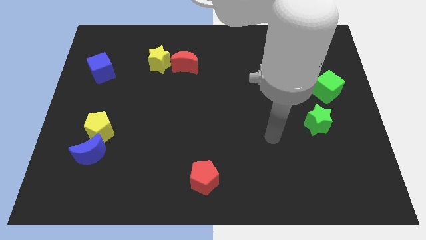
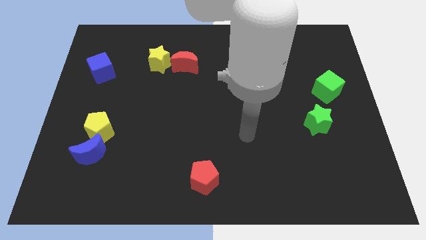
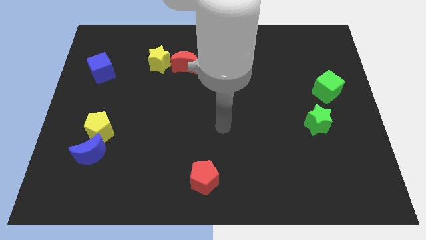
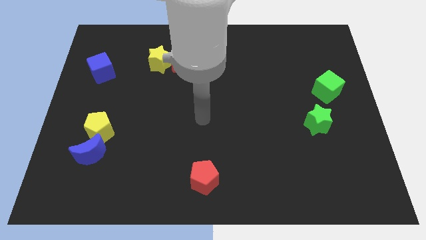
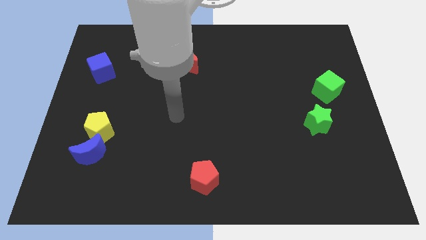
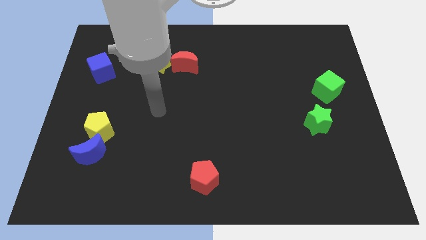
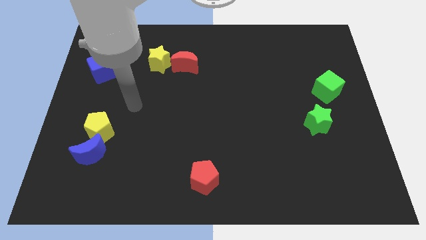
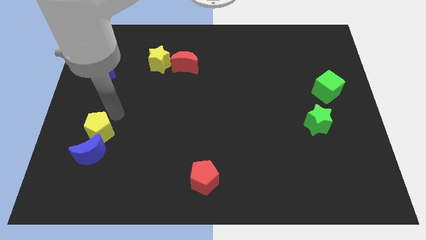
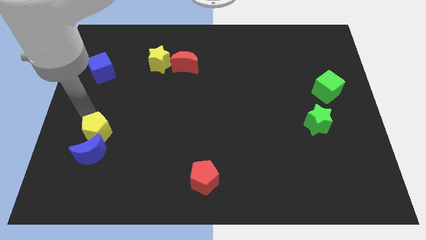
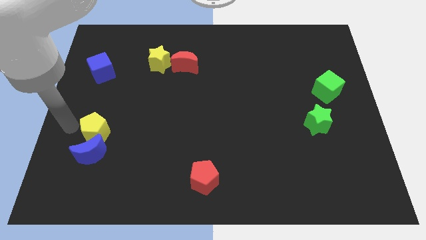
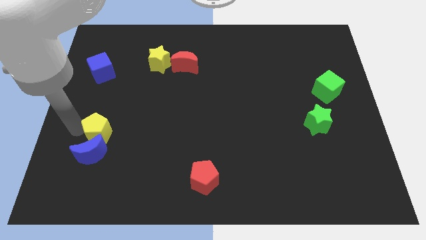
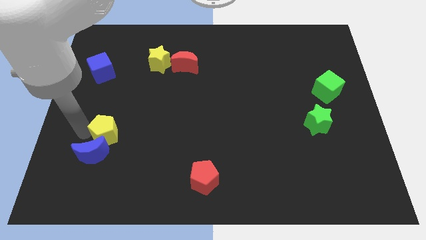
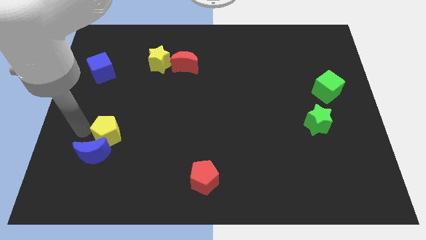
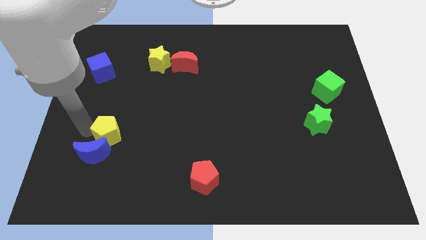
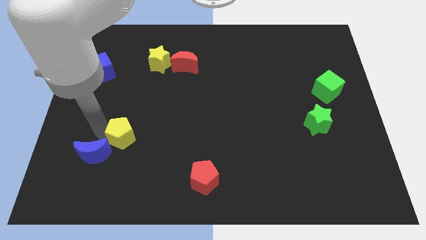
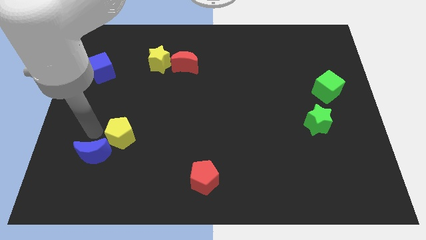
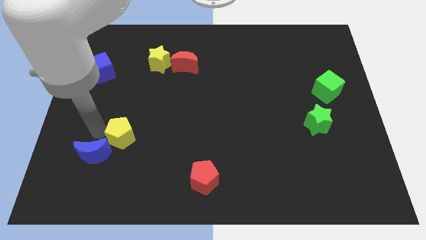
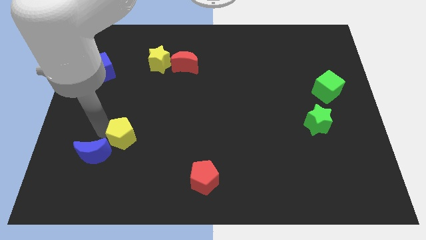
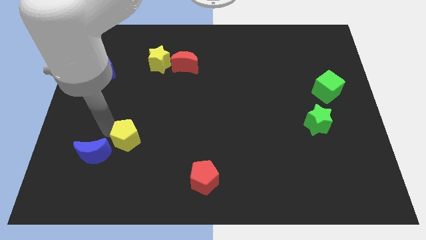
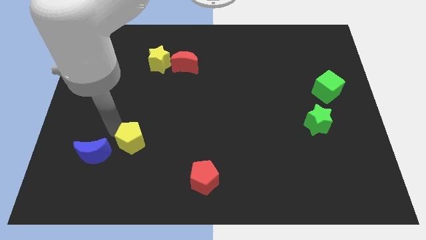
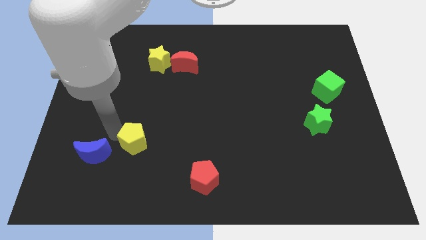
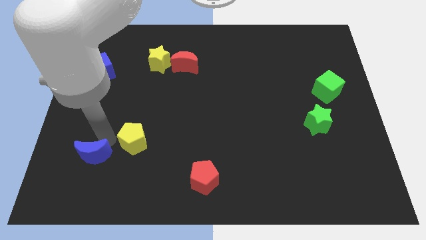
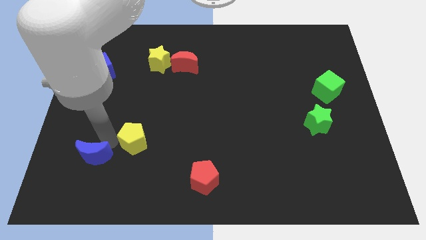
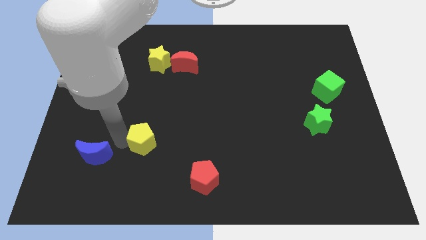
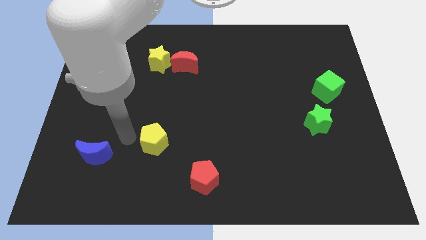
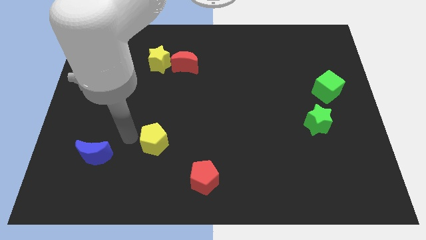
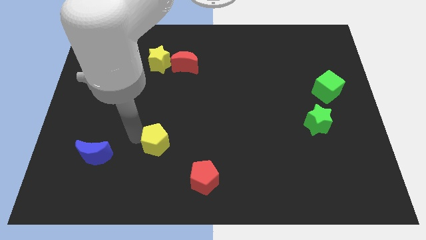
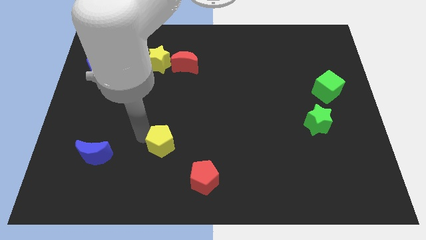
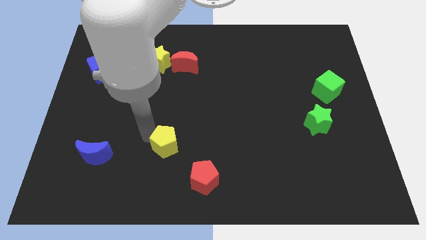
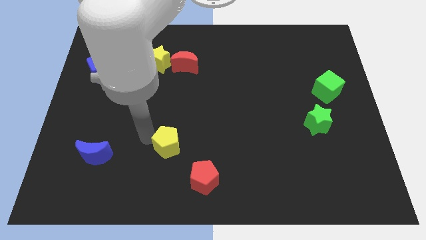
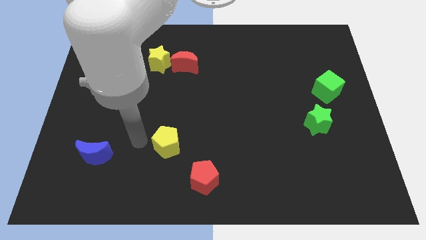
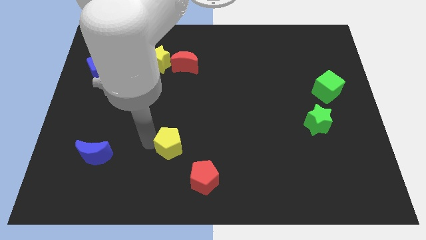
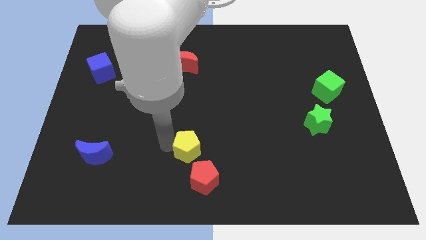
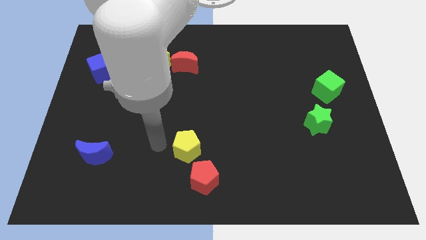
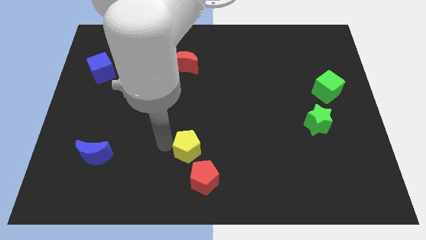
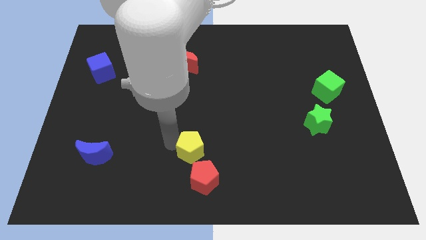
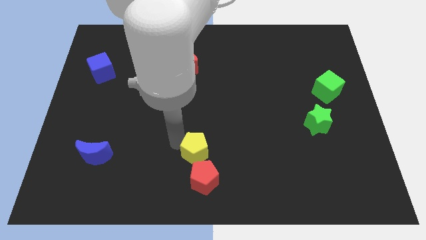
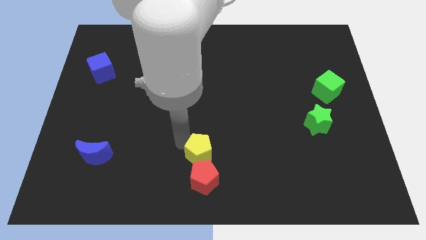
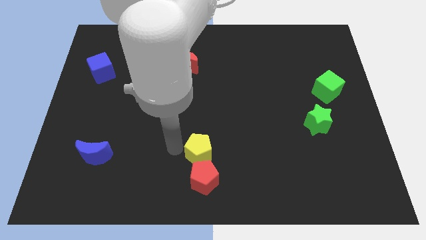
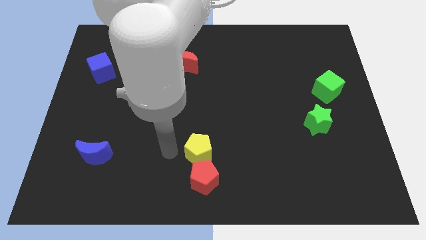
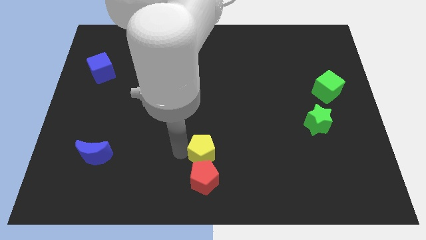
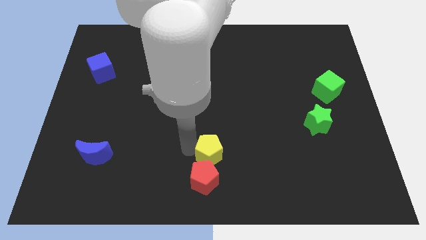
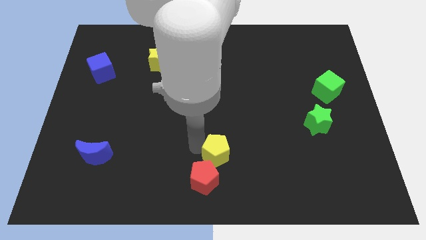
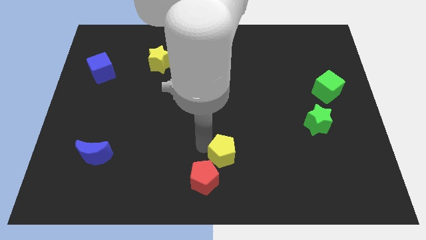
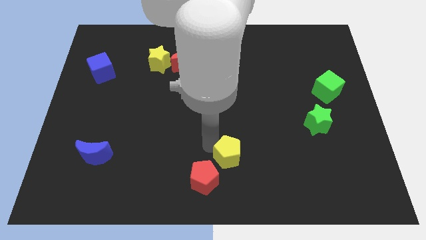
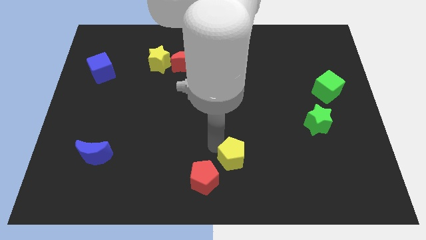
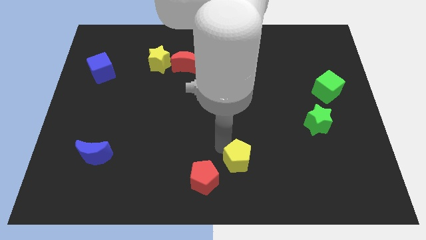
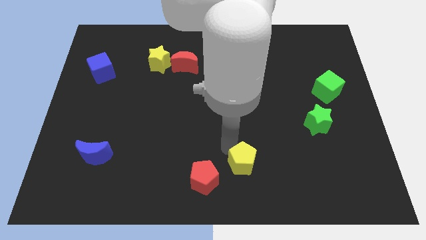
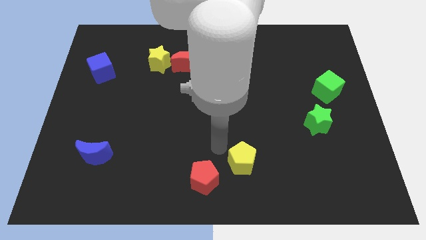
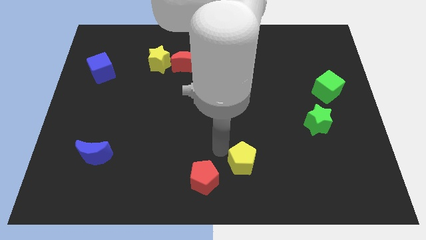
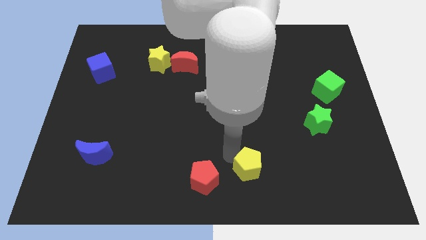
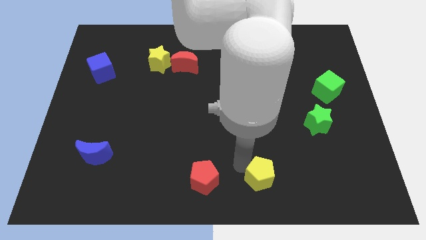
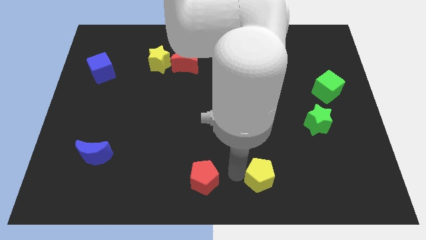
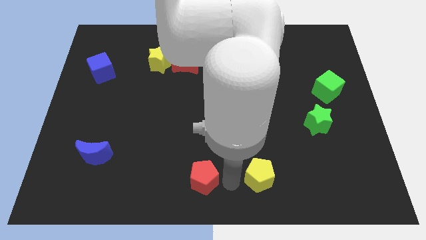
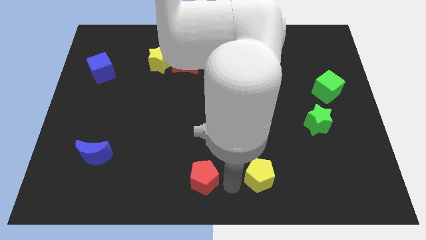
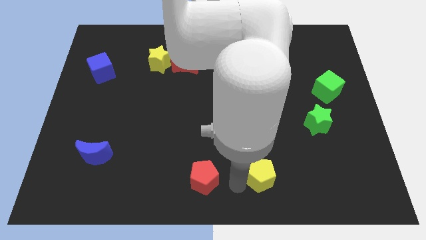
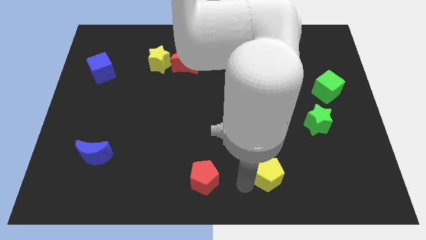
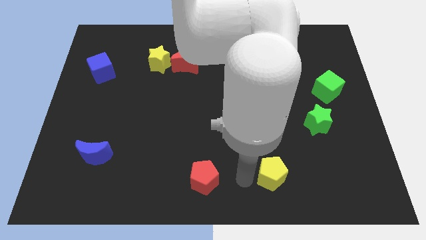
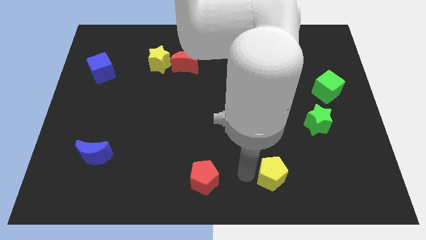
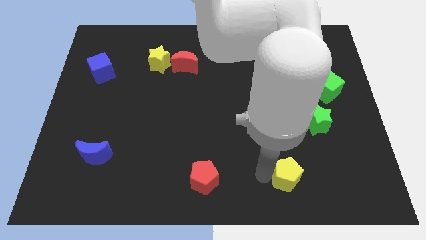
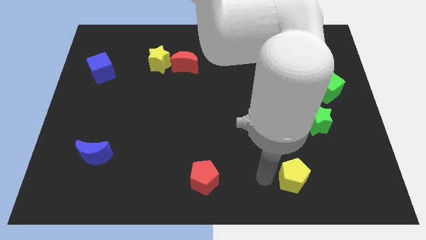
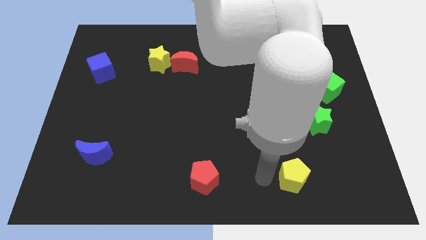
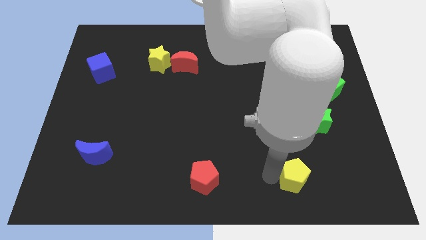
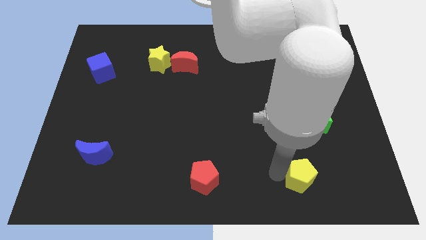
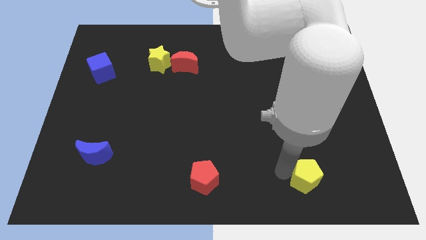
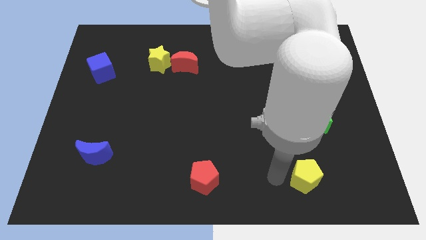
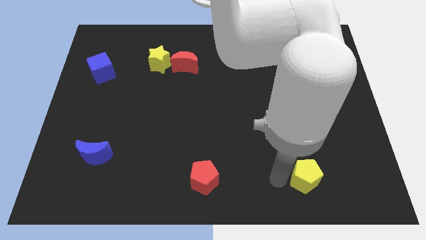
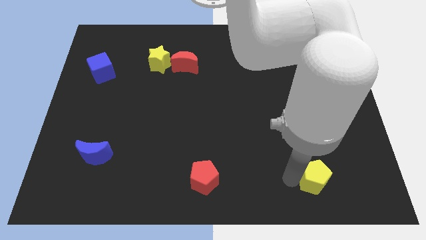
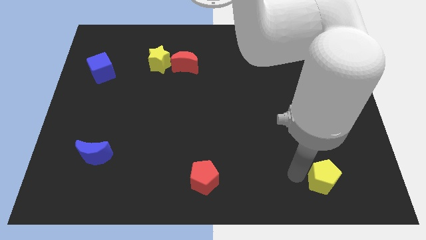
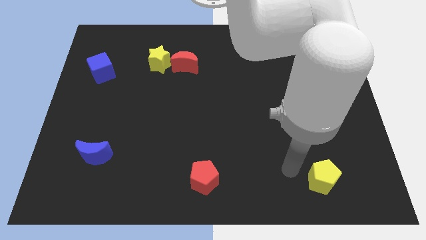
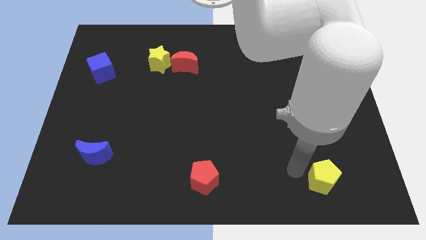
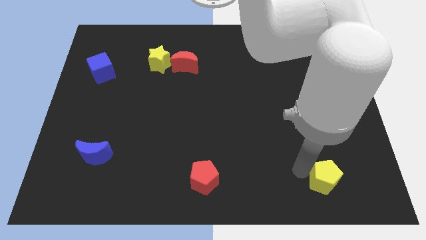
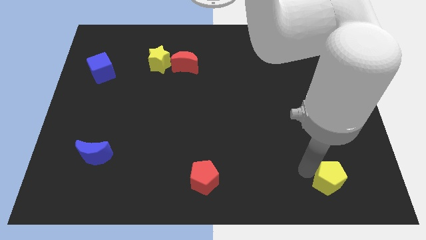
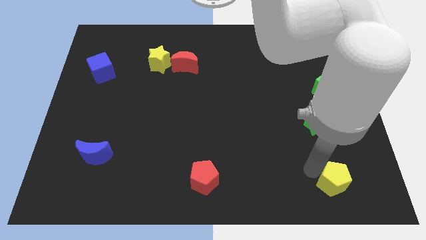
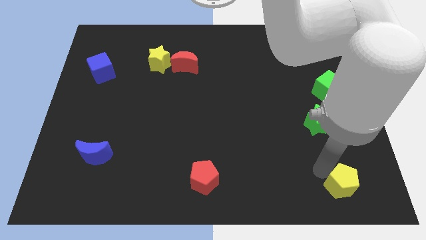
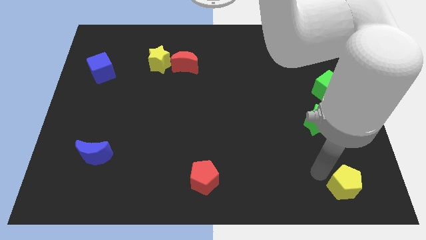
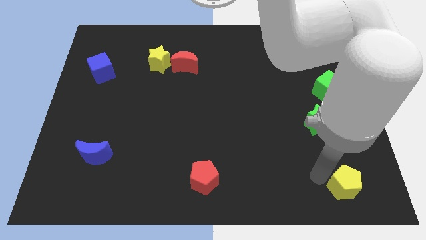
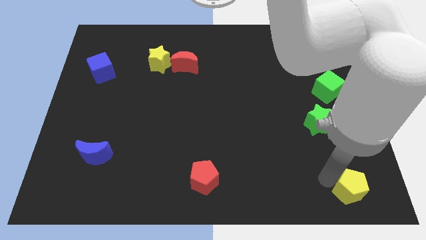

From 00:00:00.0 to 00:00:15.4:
put the yellow pentagon to the bottom right
